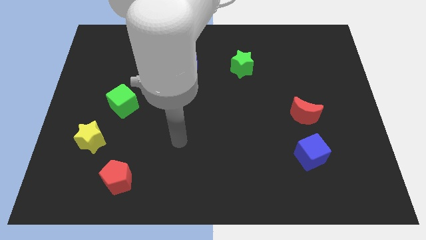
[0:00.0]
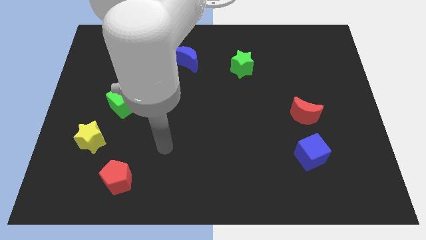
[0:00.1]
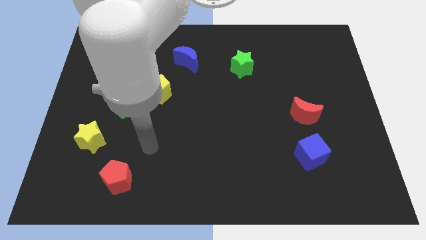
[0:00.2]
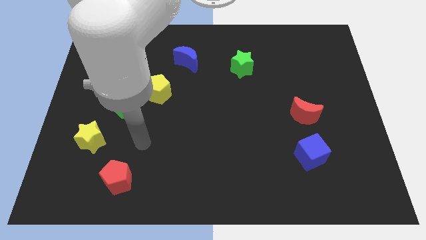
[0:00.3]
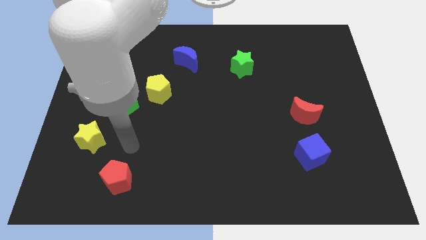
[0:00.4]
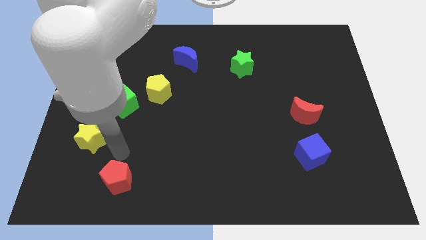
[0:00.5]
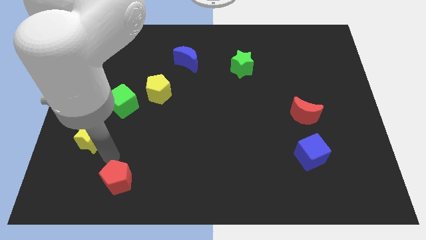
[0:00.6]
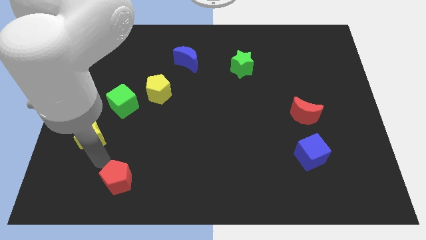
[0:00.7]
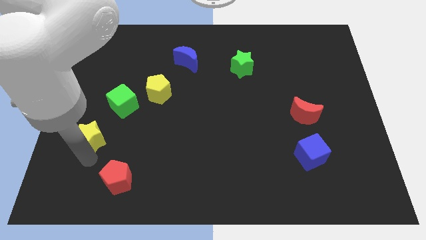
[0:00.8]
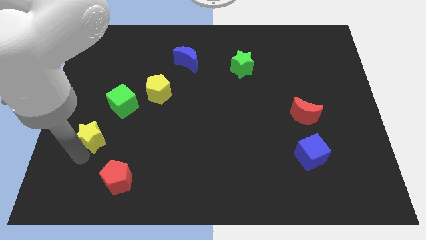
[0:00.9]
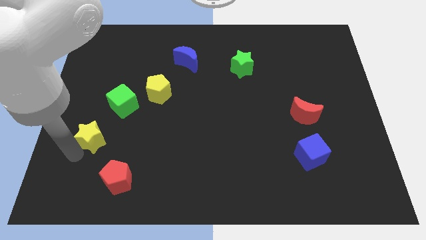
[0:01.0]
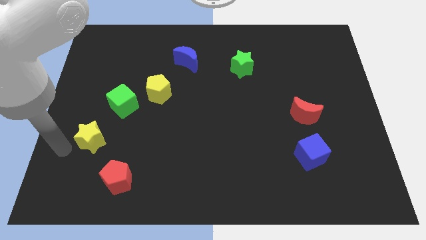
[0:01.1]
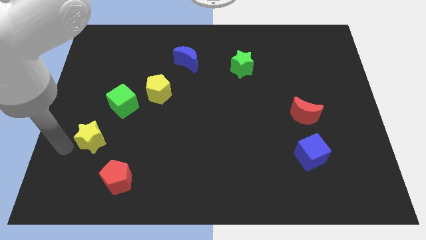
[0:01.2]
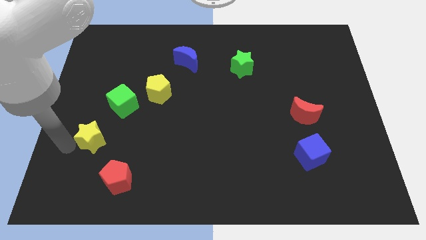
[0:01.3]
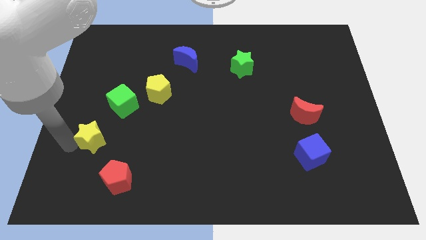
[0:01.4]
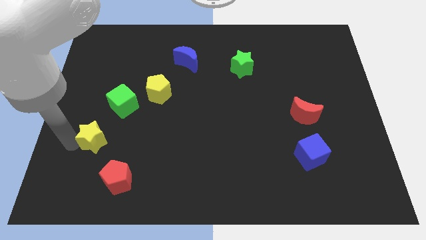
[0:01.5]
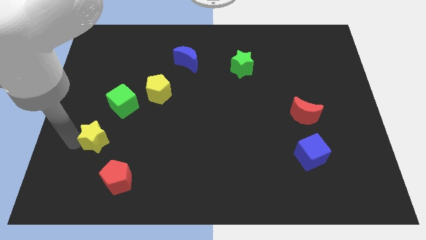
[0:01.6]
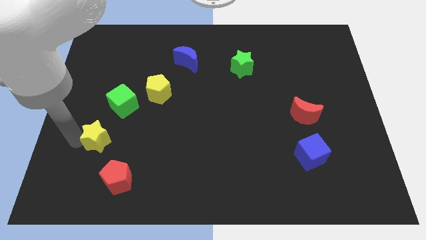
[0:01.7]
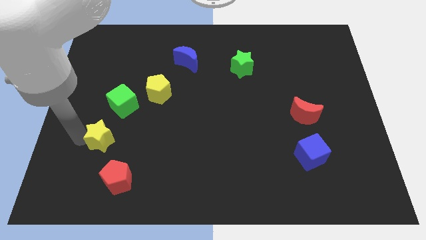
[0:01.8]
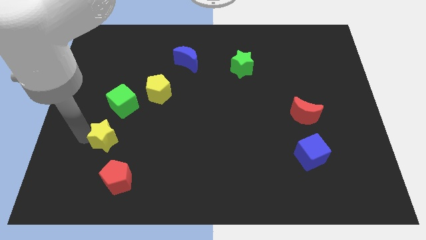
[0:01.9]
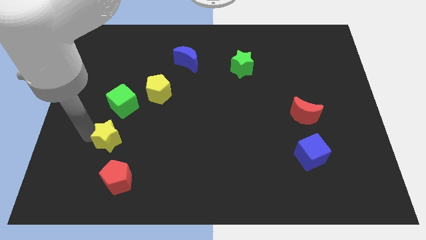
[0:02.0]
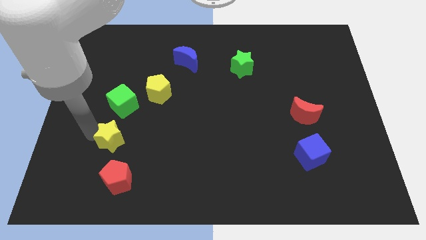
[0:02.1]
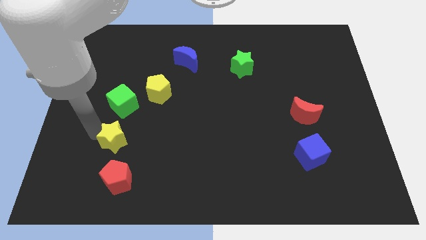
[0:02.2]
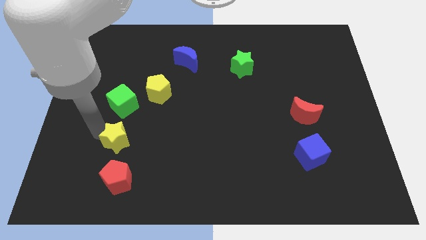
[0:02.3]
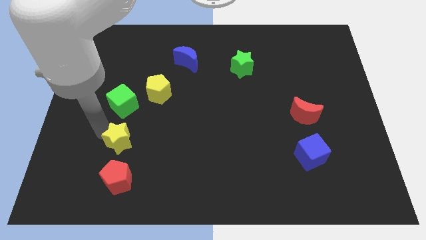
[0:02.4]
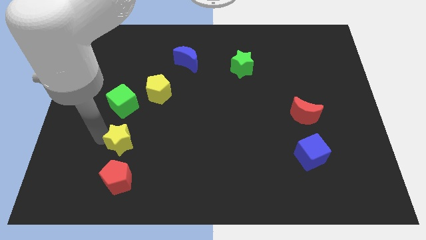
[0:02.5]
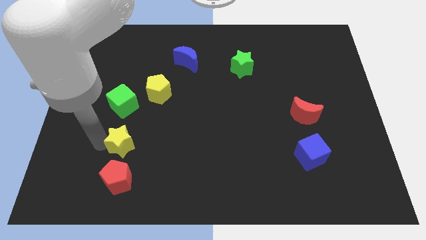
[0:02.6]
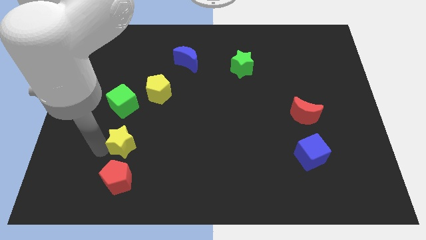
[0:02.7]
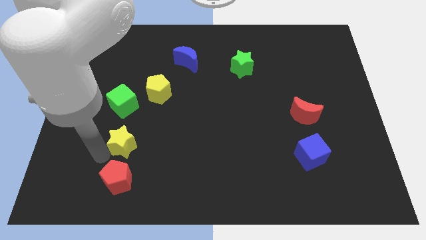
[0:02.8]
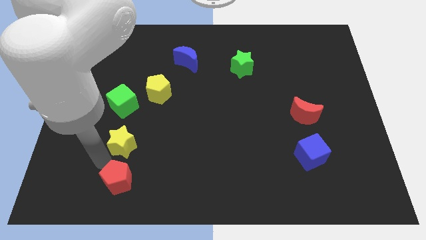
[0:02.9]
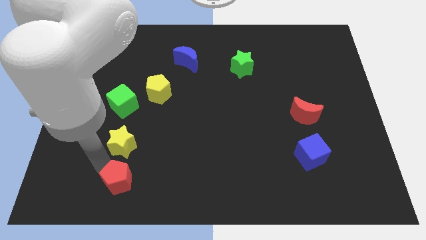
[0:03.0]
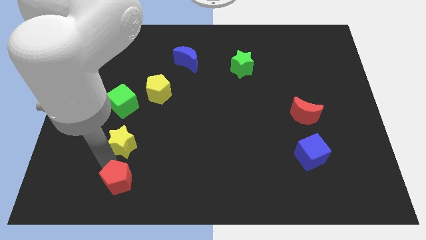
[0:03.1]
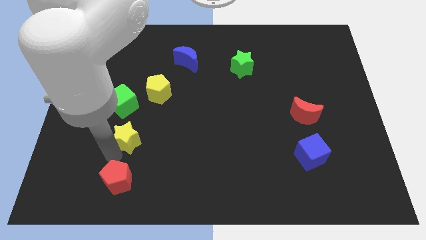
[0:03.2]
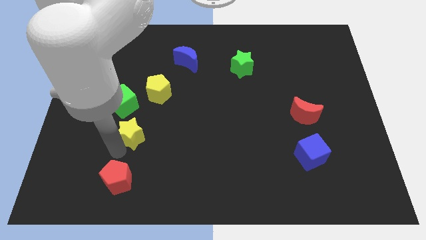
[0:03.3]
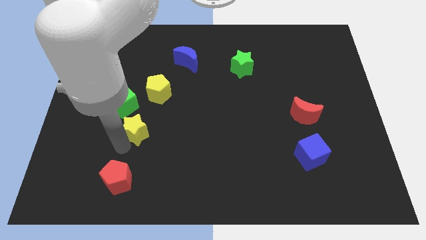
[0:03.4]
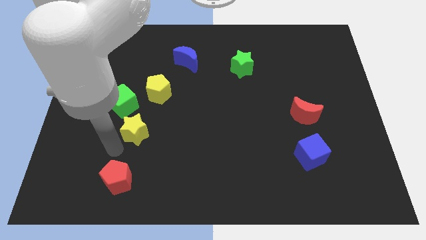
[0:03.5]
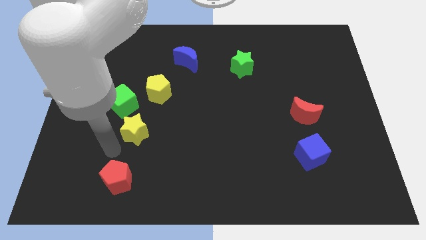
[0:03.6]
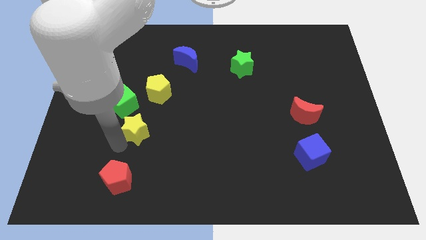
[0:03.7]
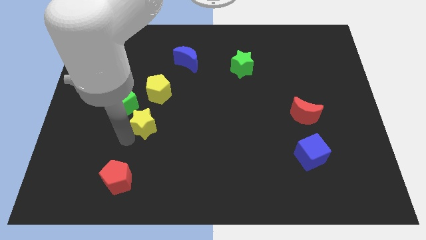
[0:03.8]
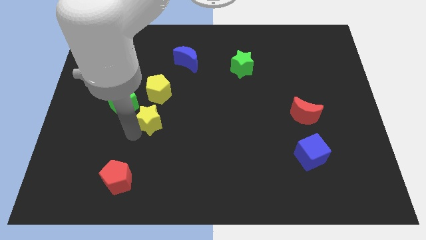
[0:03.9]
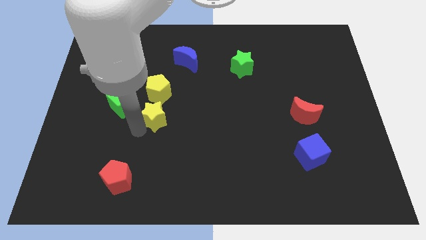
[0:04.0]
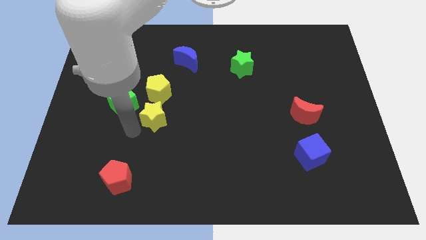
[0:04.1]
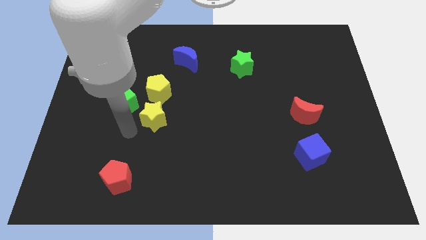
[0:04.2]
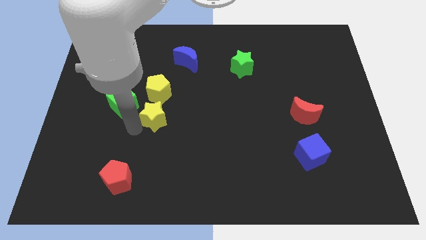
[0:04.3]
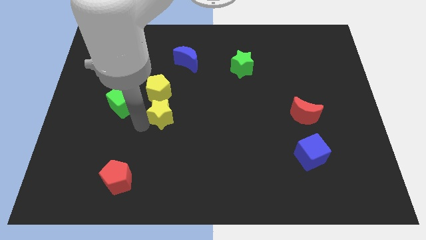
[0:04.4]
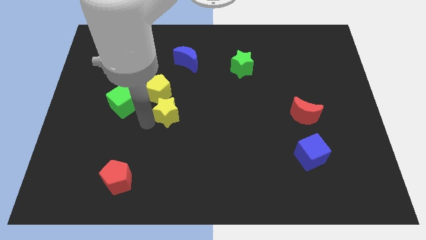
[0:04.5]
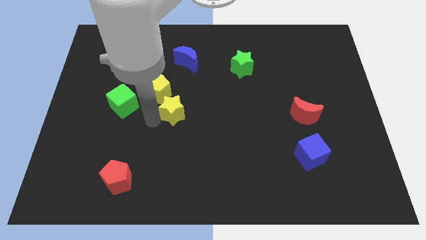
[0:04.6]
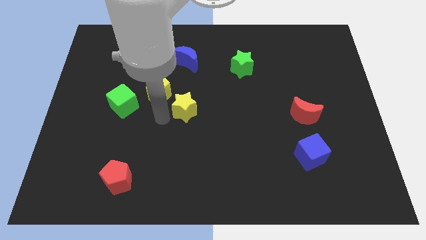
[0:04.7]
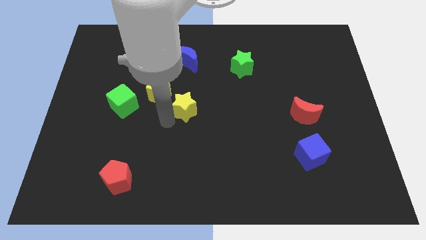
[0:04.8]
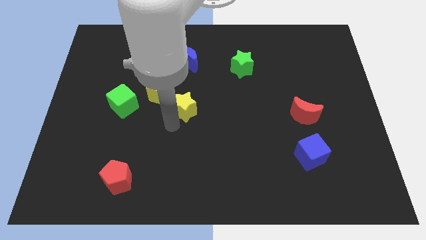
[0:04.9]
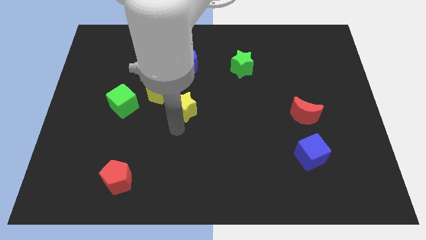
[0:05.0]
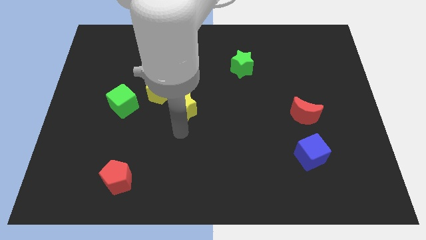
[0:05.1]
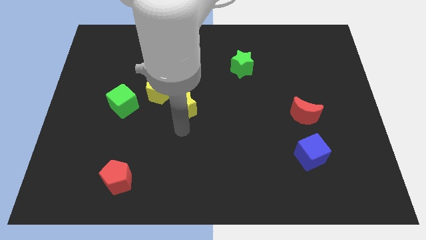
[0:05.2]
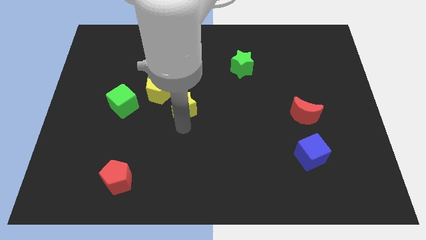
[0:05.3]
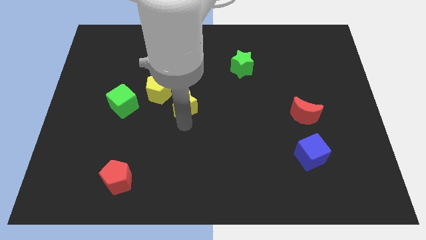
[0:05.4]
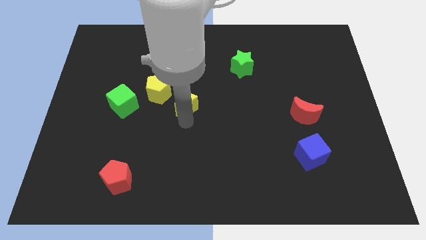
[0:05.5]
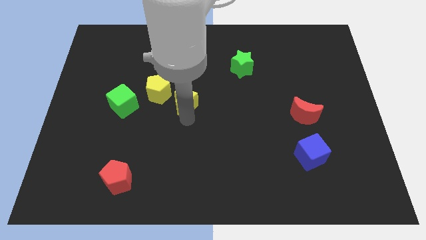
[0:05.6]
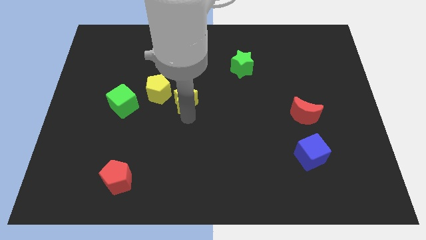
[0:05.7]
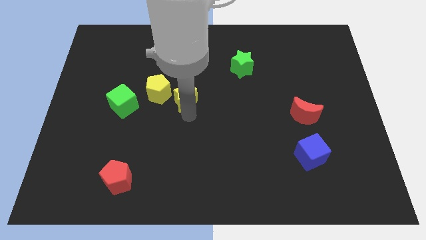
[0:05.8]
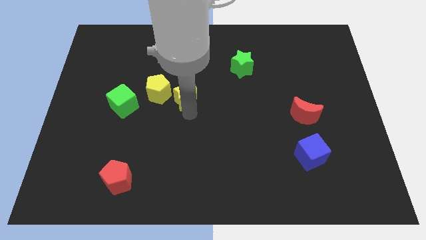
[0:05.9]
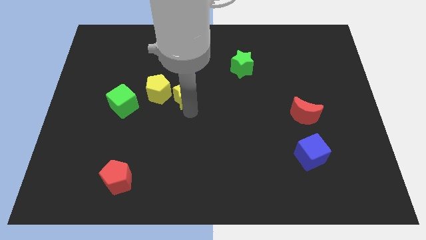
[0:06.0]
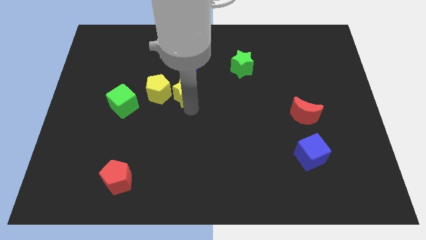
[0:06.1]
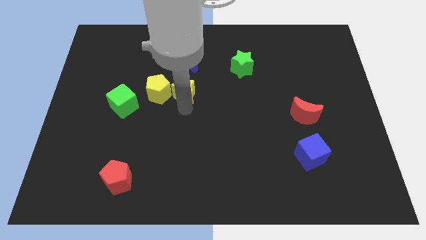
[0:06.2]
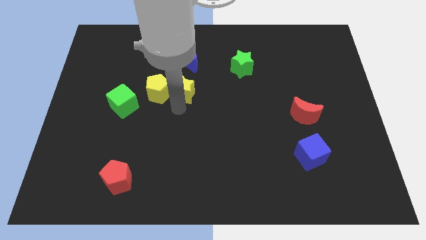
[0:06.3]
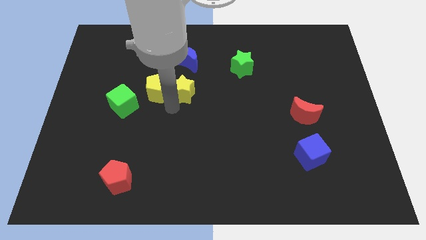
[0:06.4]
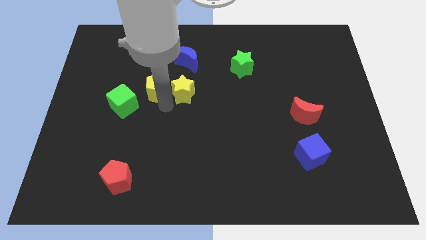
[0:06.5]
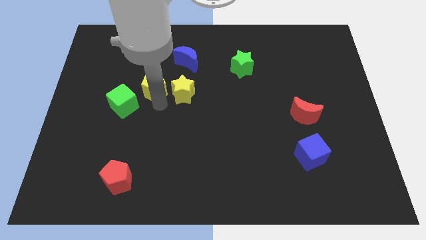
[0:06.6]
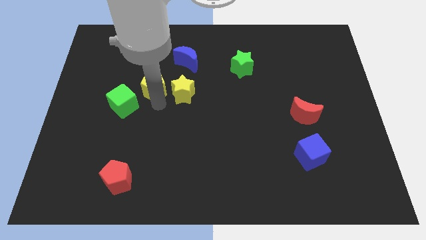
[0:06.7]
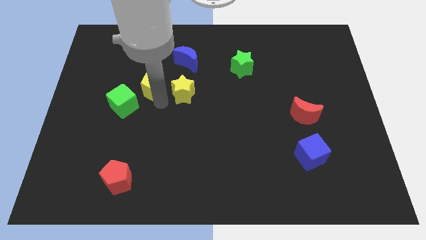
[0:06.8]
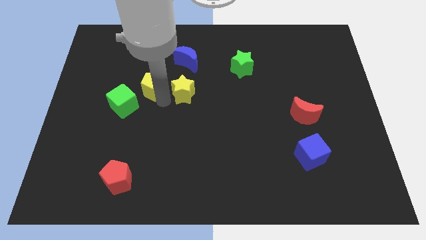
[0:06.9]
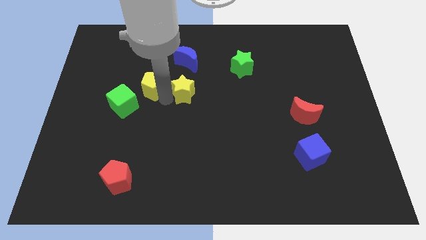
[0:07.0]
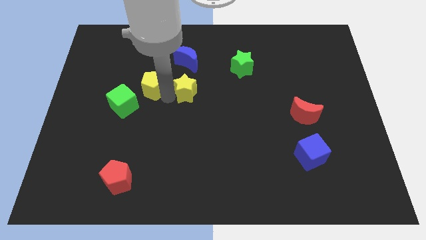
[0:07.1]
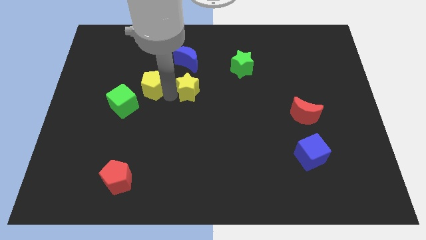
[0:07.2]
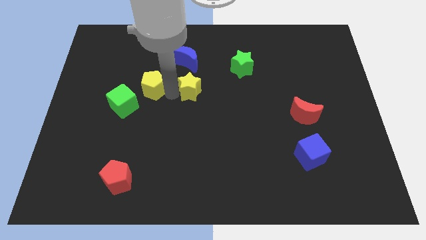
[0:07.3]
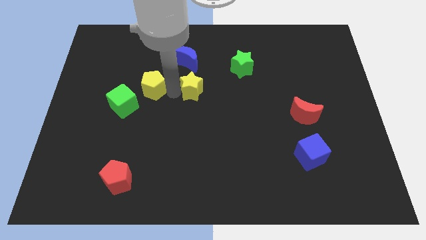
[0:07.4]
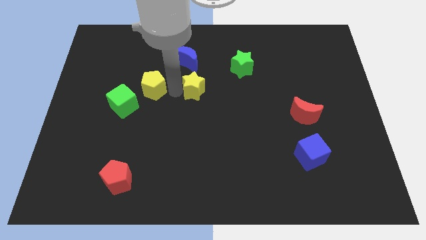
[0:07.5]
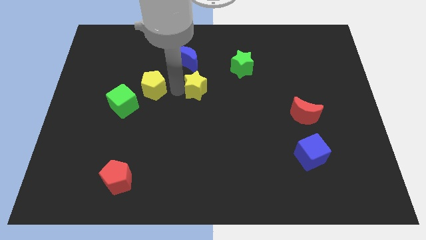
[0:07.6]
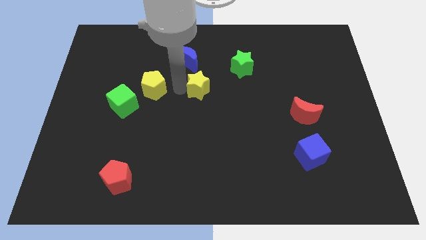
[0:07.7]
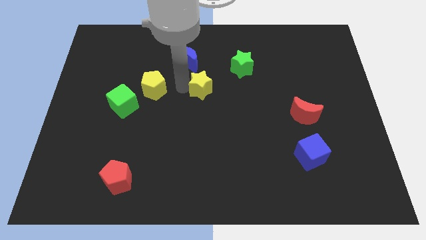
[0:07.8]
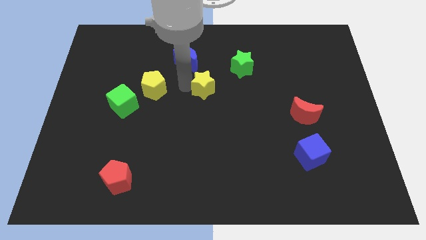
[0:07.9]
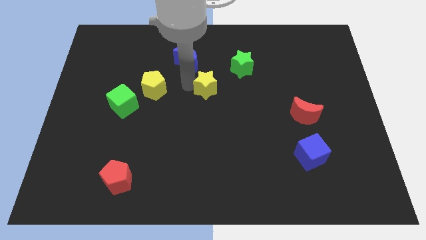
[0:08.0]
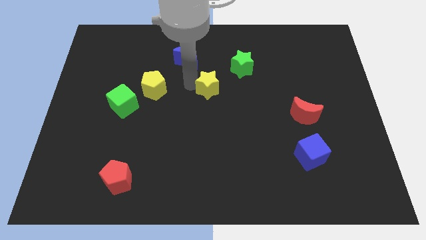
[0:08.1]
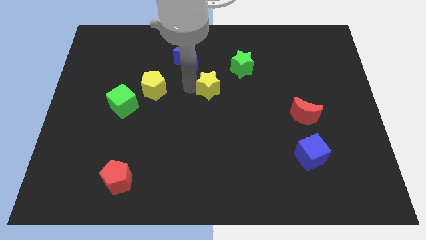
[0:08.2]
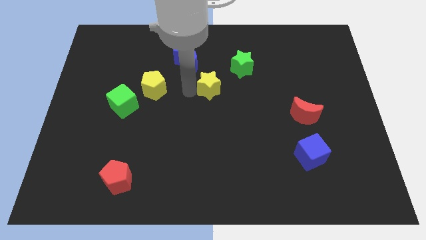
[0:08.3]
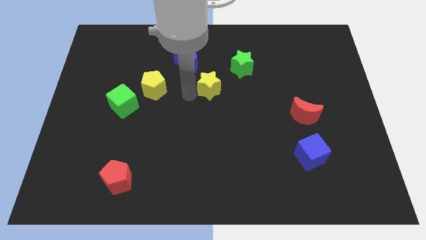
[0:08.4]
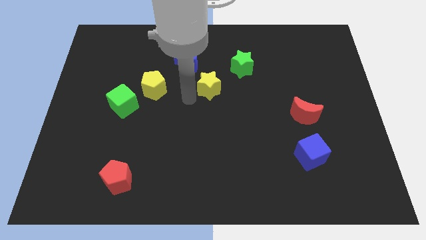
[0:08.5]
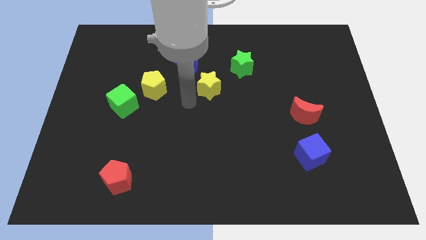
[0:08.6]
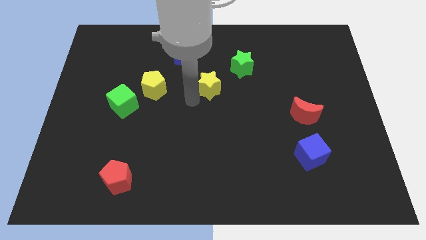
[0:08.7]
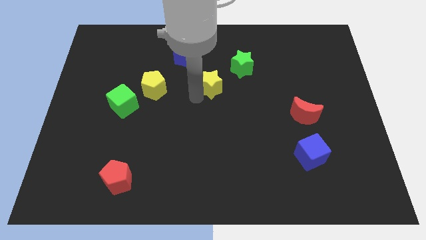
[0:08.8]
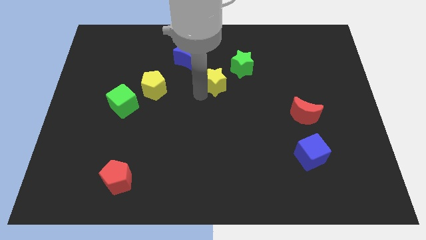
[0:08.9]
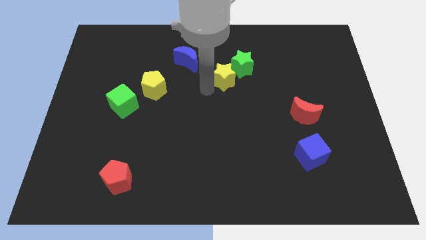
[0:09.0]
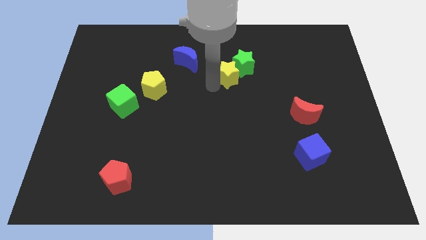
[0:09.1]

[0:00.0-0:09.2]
put the yellow star next to the green star
